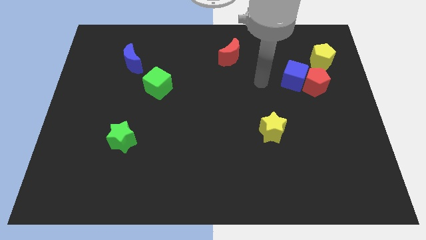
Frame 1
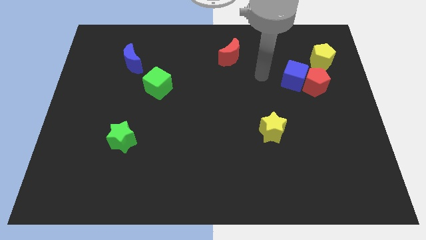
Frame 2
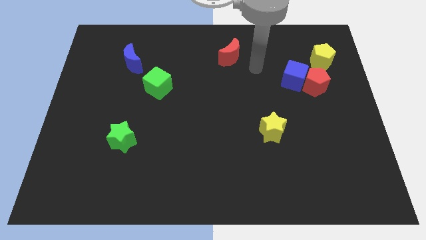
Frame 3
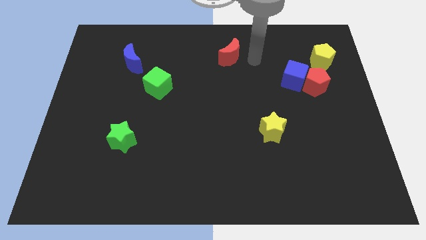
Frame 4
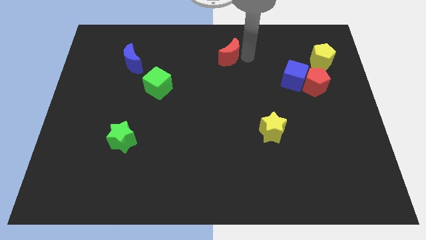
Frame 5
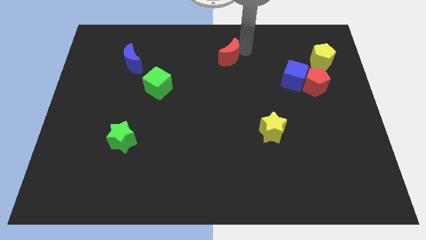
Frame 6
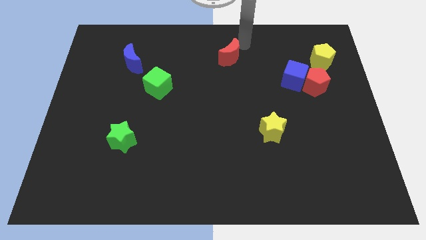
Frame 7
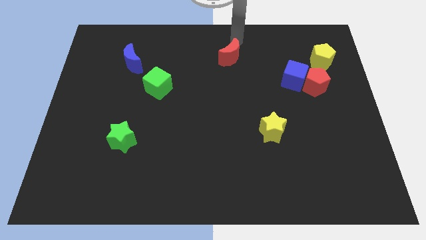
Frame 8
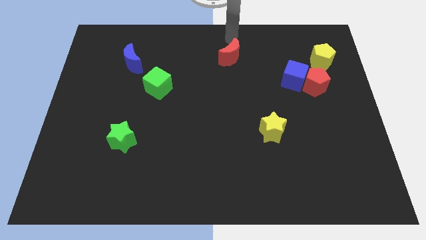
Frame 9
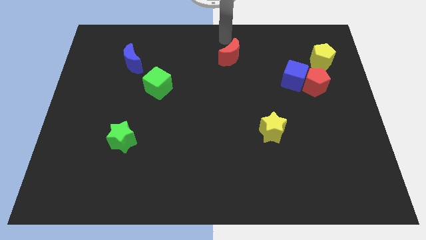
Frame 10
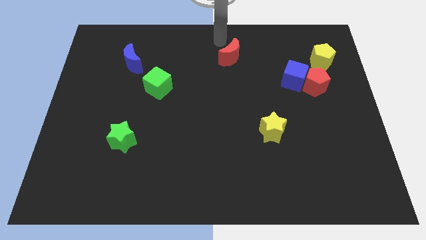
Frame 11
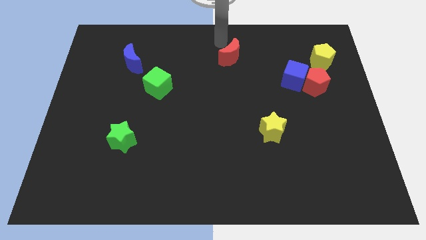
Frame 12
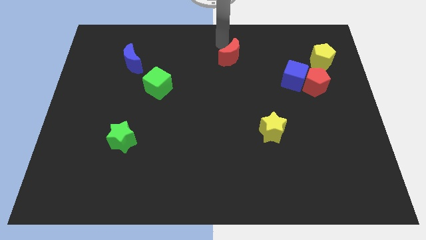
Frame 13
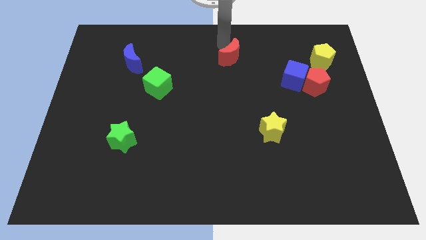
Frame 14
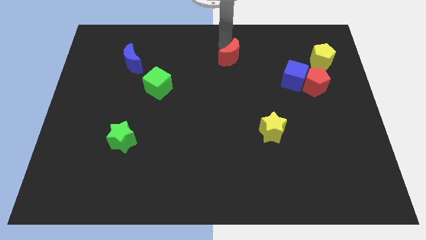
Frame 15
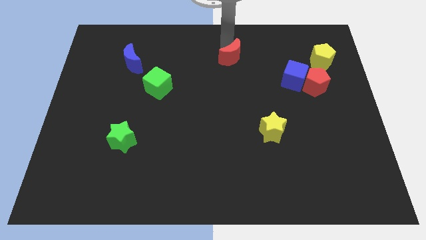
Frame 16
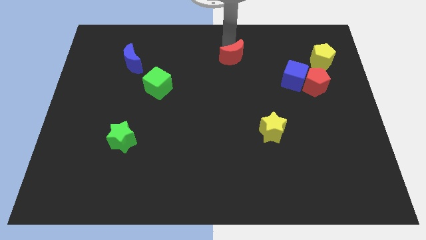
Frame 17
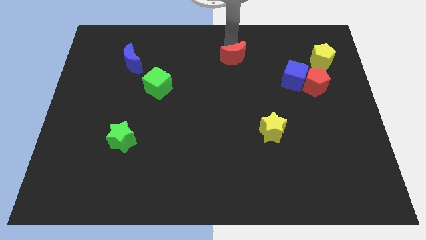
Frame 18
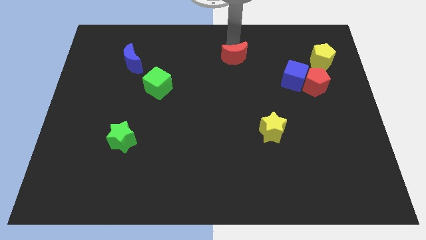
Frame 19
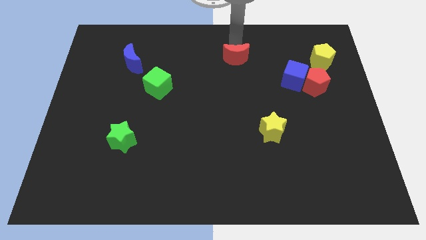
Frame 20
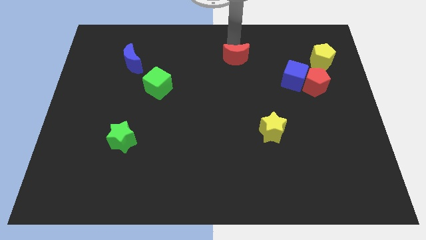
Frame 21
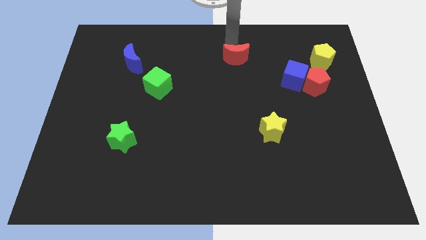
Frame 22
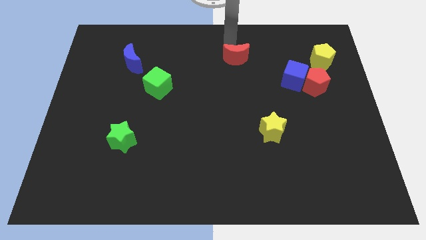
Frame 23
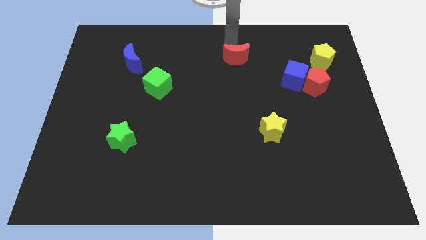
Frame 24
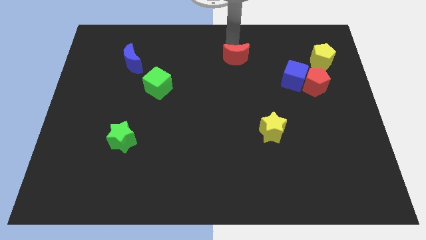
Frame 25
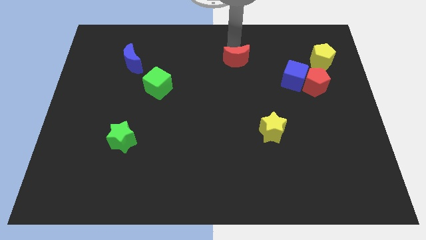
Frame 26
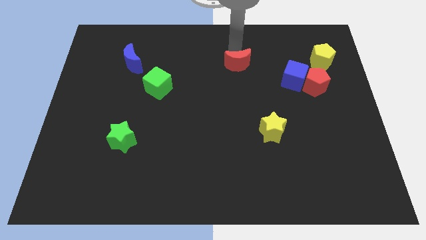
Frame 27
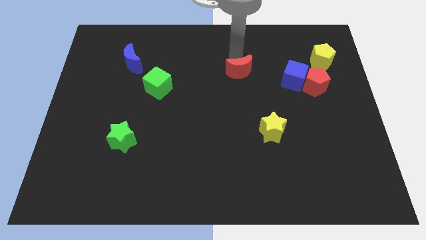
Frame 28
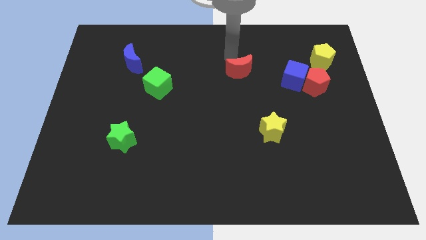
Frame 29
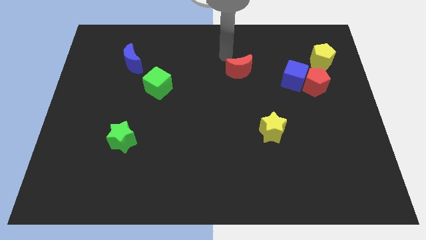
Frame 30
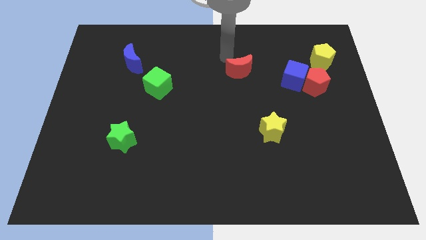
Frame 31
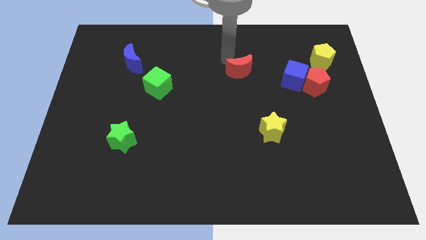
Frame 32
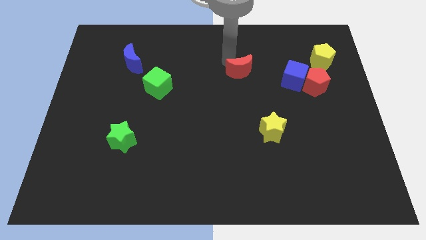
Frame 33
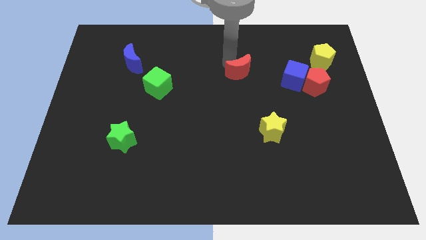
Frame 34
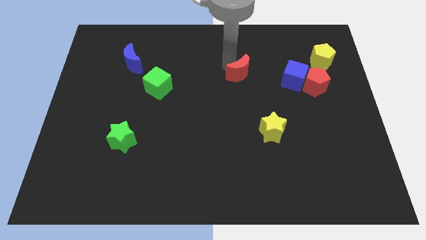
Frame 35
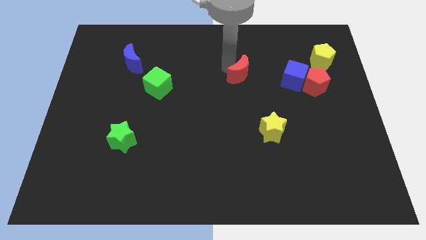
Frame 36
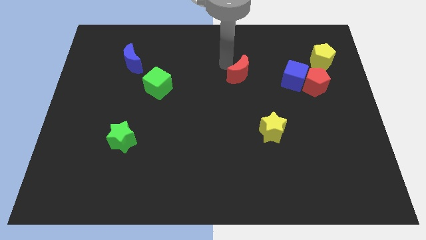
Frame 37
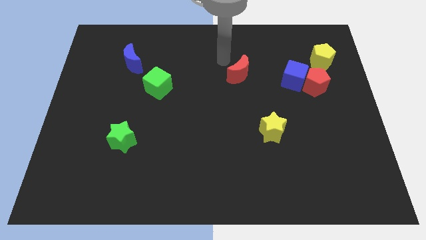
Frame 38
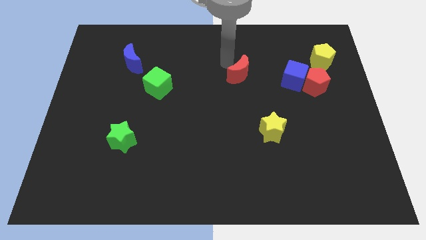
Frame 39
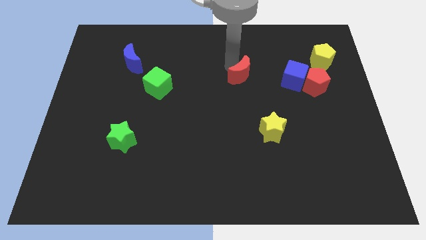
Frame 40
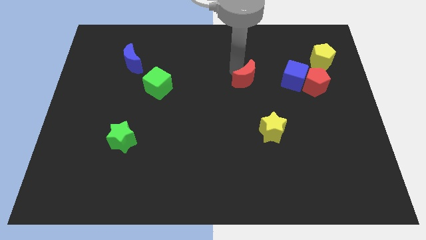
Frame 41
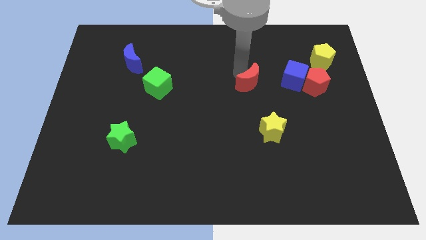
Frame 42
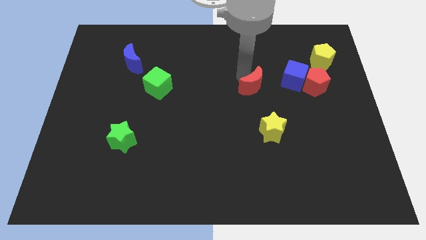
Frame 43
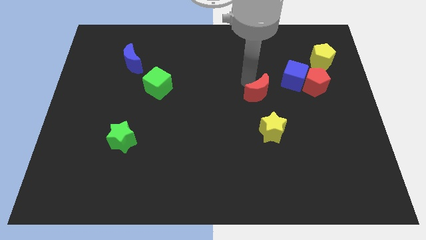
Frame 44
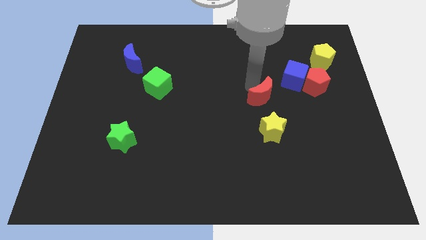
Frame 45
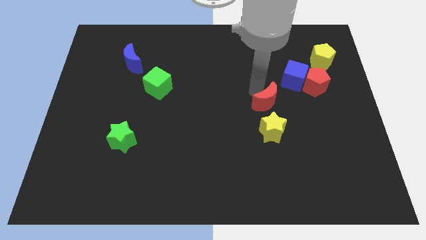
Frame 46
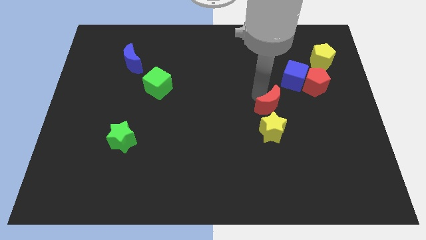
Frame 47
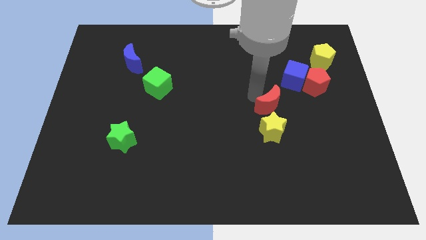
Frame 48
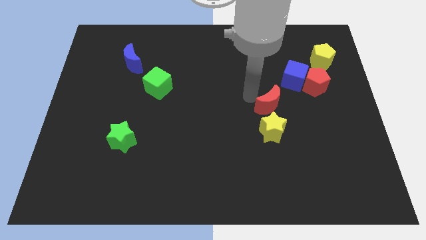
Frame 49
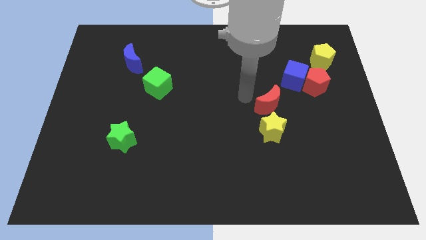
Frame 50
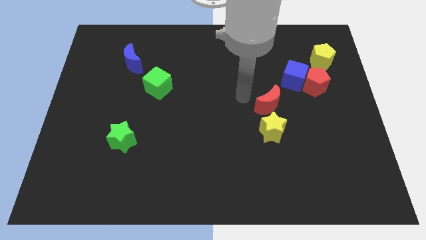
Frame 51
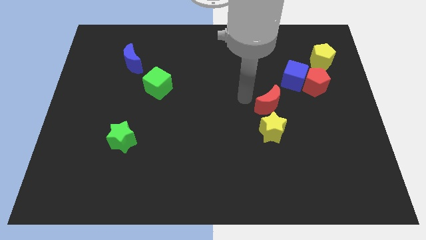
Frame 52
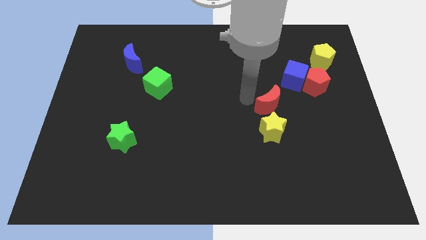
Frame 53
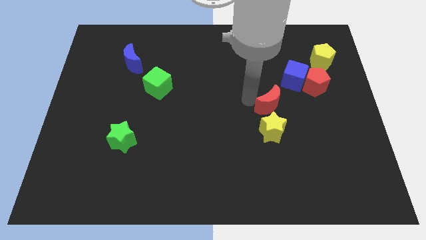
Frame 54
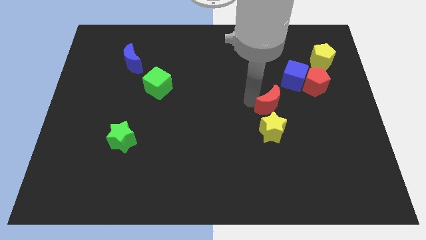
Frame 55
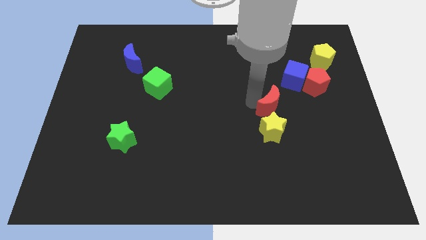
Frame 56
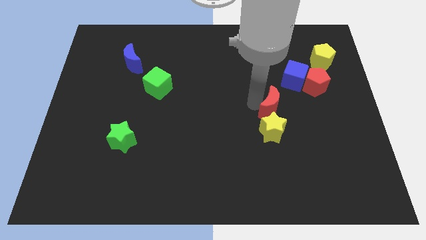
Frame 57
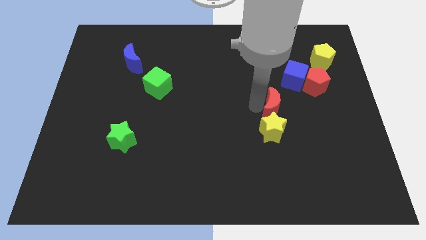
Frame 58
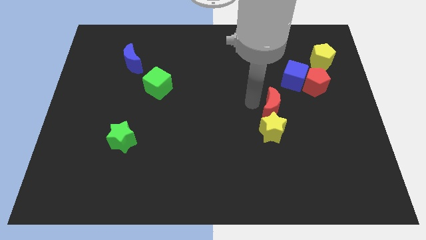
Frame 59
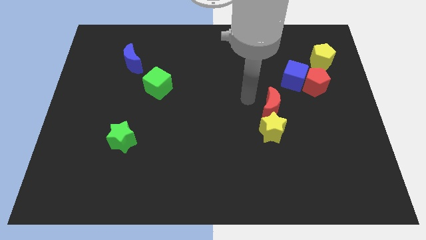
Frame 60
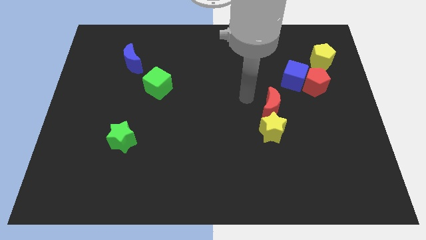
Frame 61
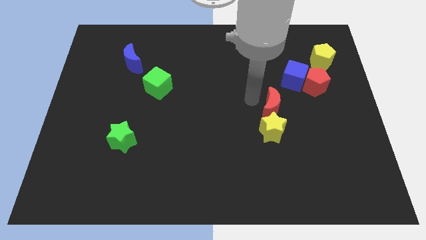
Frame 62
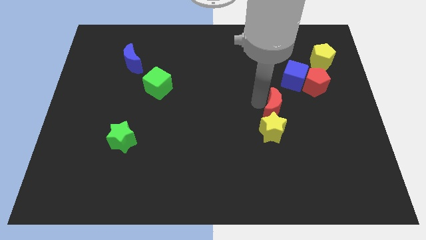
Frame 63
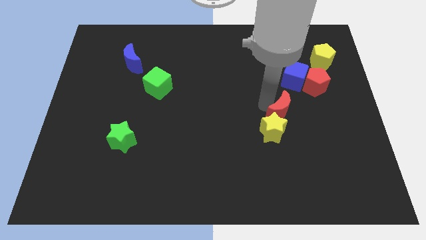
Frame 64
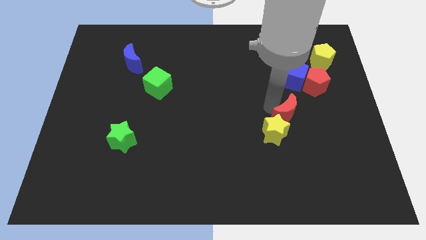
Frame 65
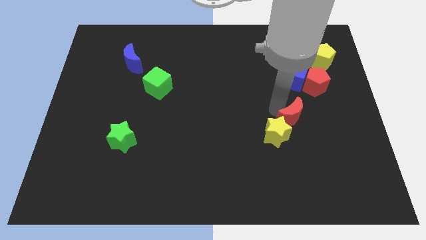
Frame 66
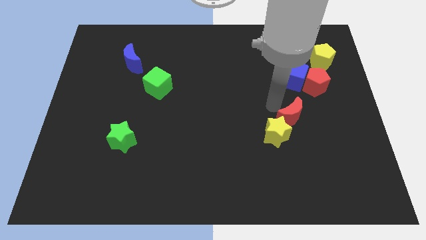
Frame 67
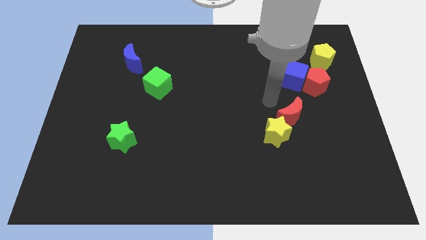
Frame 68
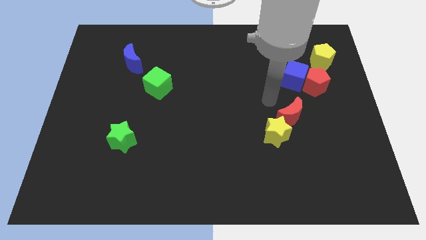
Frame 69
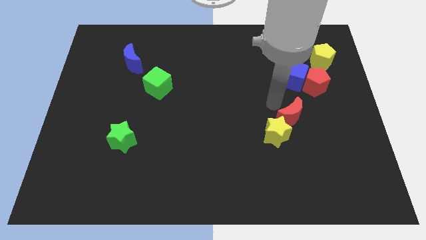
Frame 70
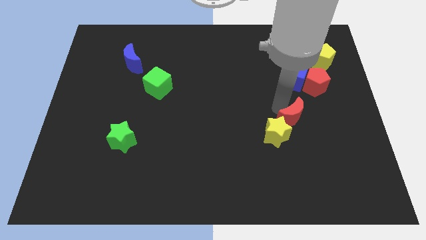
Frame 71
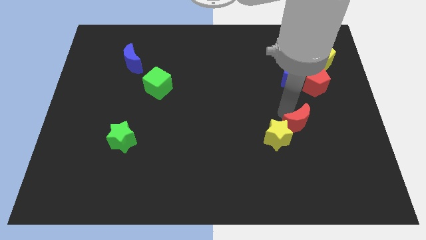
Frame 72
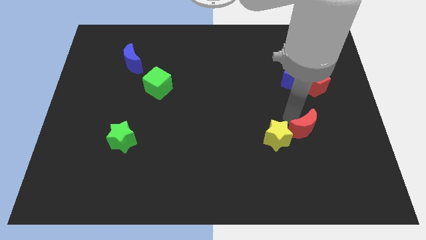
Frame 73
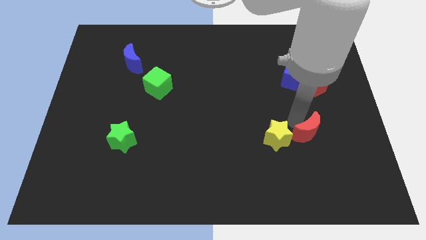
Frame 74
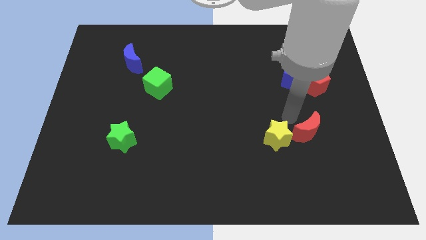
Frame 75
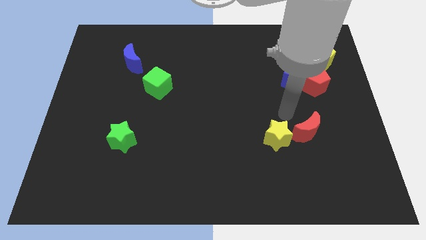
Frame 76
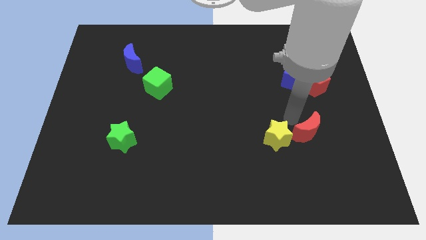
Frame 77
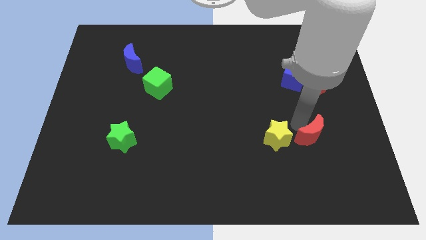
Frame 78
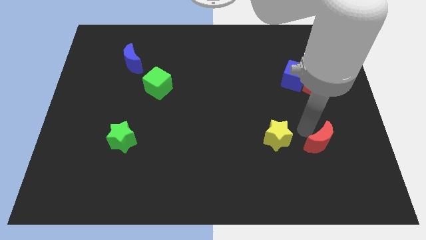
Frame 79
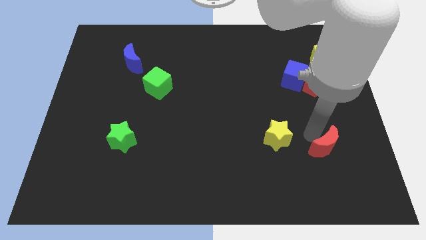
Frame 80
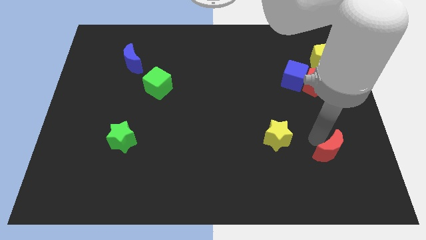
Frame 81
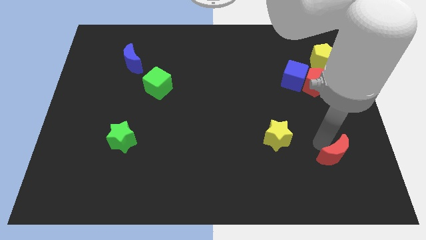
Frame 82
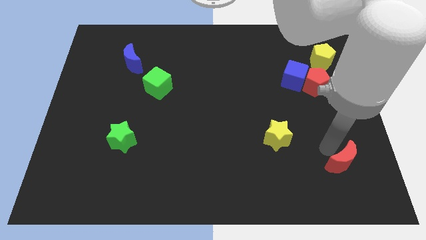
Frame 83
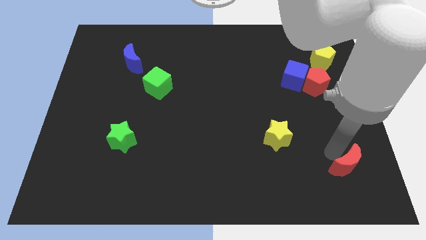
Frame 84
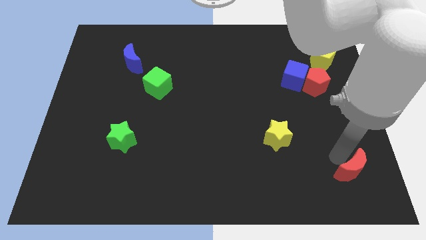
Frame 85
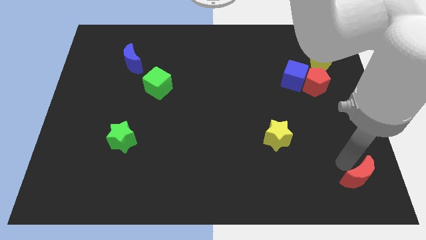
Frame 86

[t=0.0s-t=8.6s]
slide the red moon to the bottom right of the board
